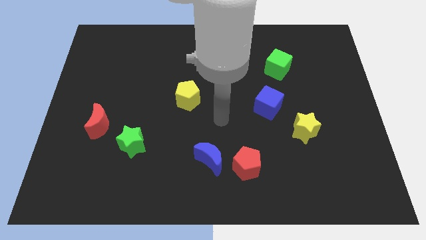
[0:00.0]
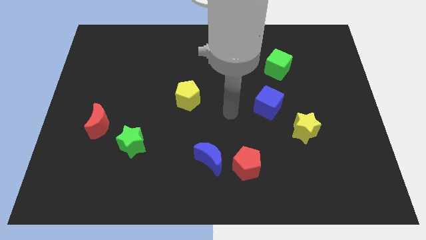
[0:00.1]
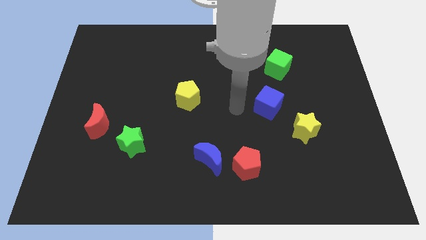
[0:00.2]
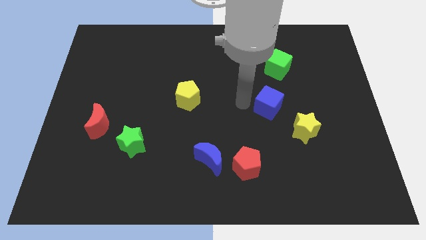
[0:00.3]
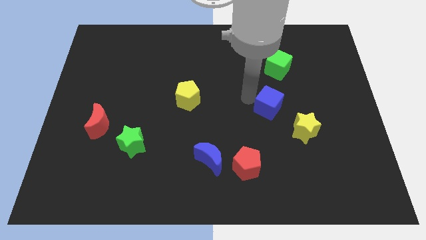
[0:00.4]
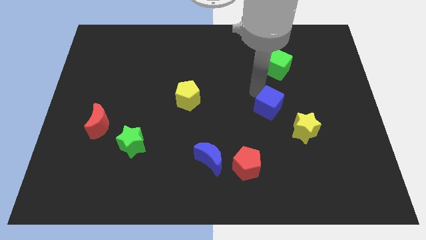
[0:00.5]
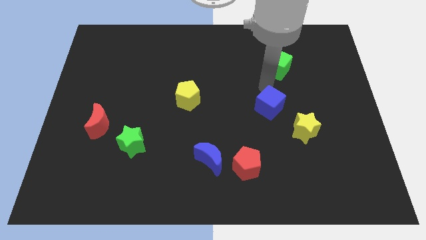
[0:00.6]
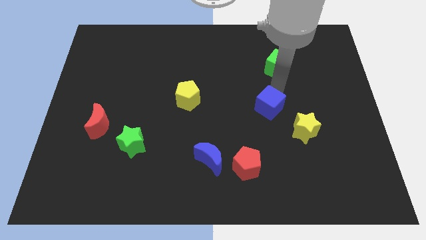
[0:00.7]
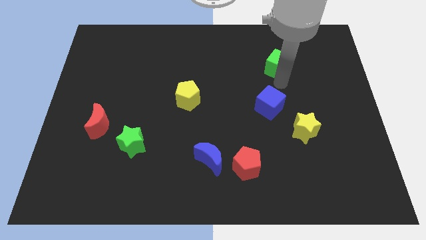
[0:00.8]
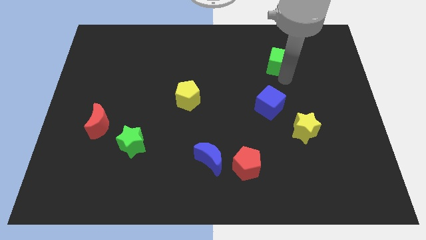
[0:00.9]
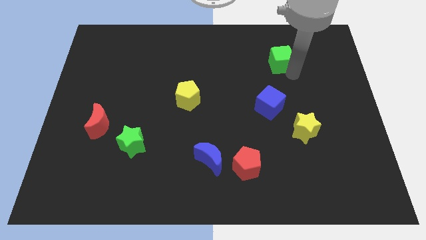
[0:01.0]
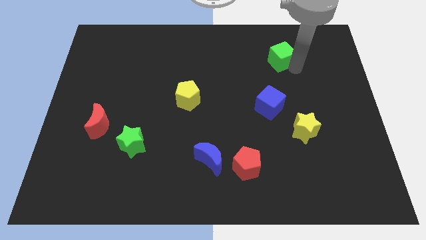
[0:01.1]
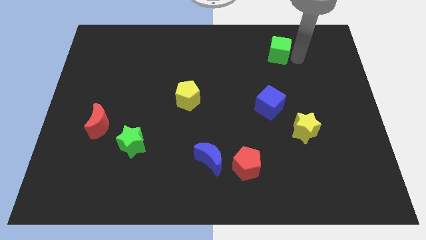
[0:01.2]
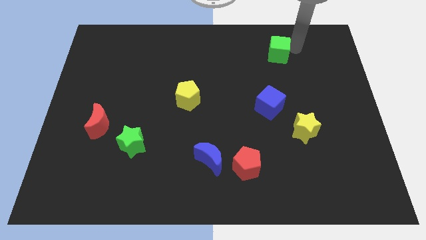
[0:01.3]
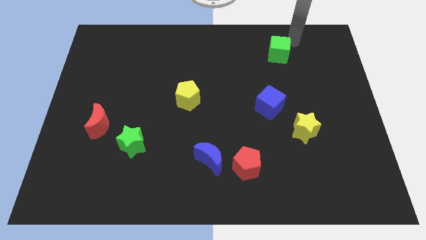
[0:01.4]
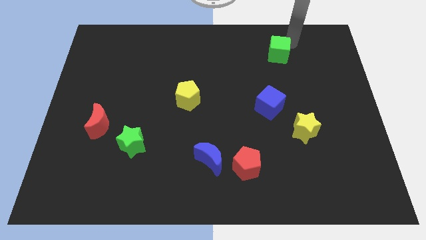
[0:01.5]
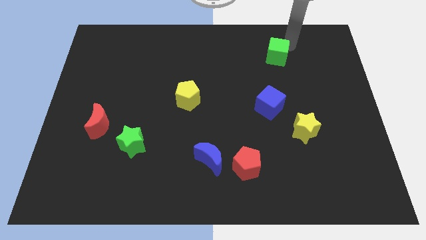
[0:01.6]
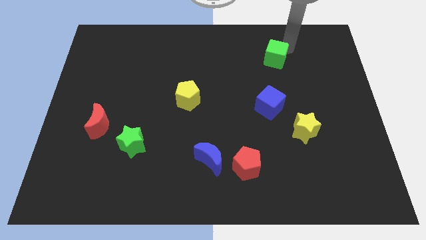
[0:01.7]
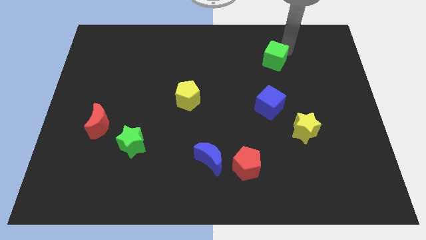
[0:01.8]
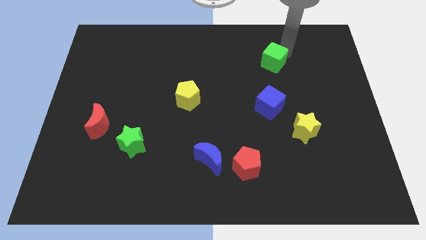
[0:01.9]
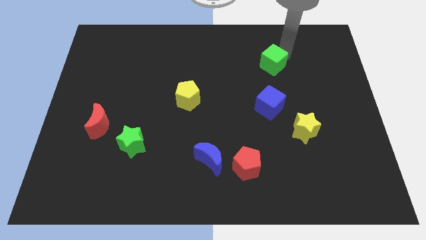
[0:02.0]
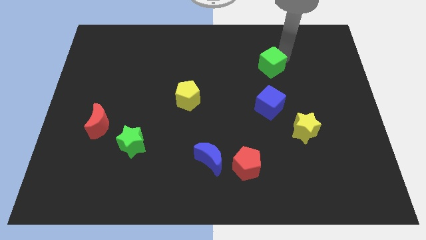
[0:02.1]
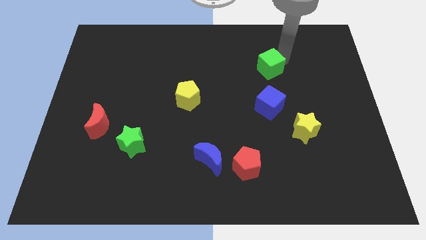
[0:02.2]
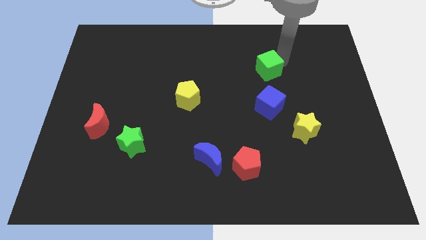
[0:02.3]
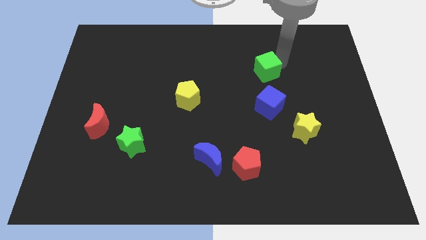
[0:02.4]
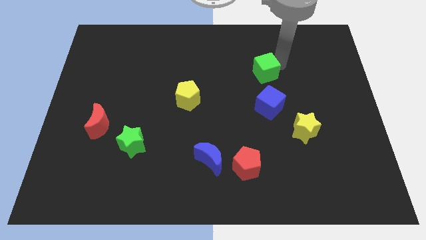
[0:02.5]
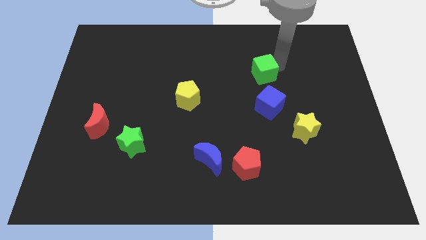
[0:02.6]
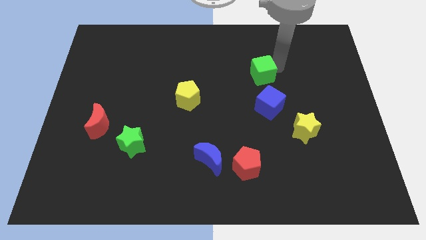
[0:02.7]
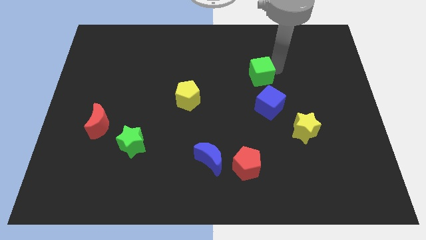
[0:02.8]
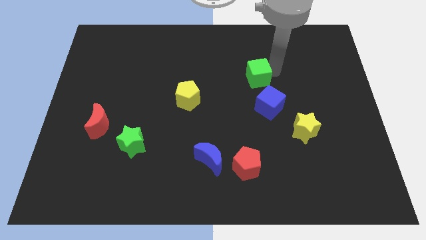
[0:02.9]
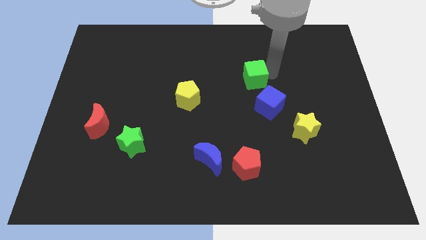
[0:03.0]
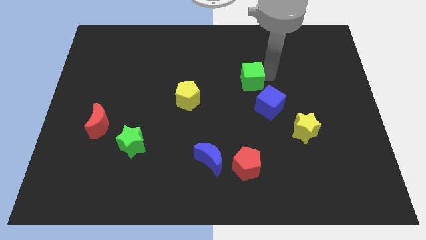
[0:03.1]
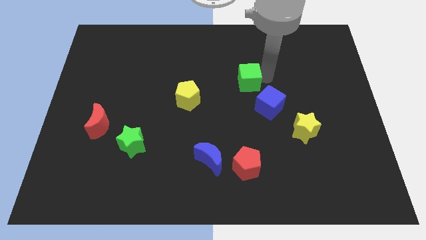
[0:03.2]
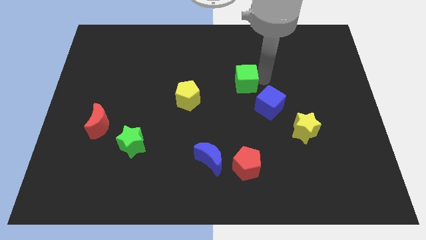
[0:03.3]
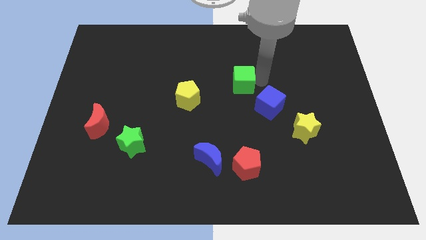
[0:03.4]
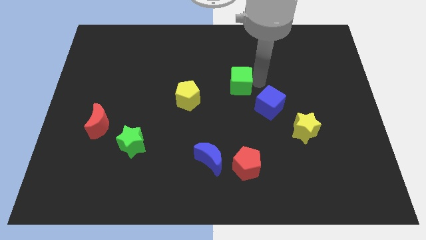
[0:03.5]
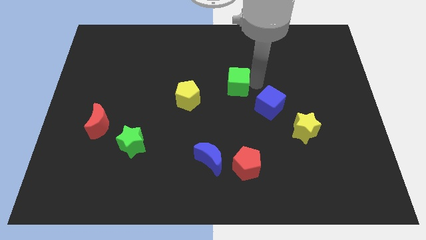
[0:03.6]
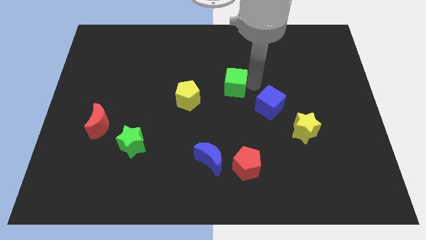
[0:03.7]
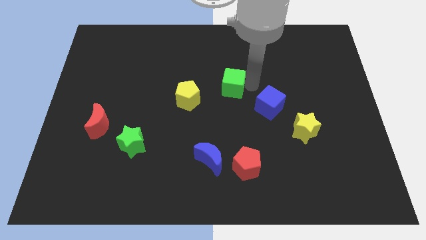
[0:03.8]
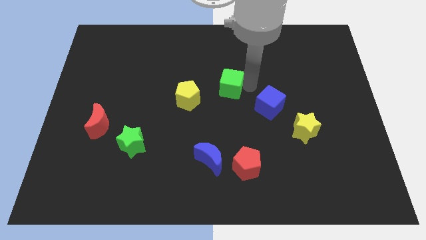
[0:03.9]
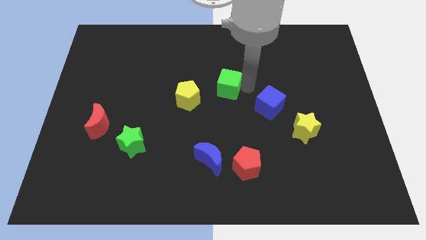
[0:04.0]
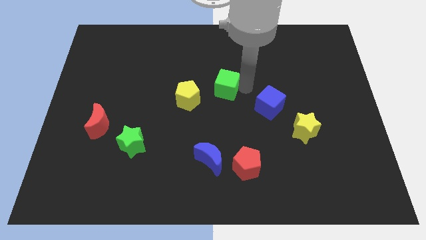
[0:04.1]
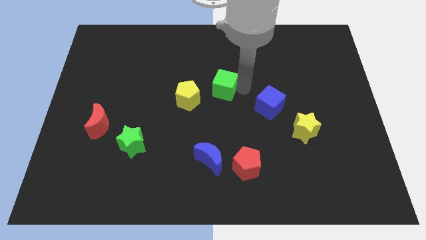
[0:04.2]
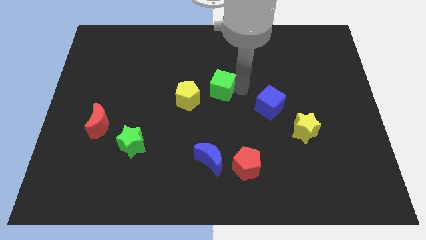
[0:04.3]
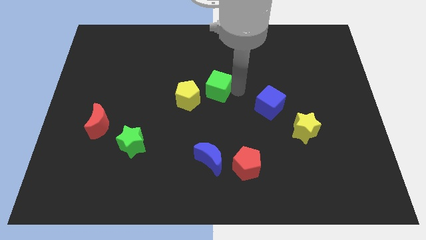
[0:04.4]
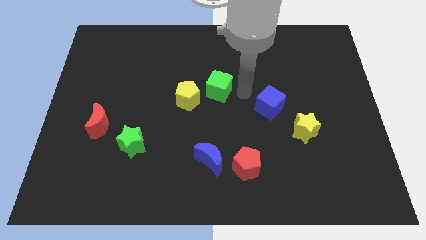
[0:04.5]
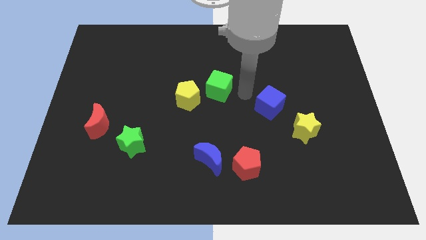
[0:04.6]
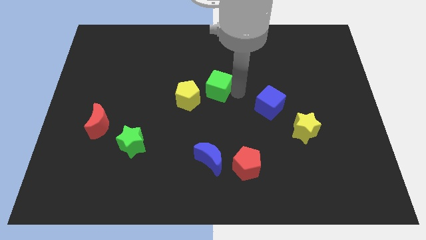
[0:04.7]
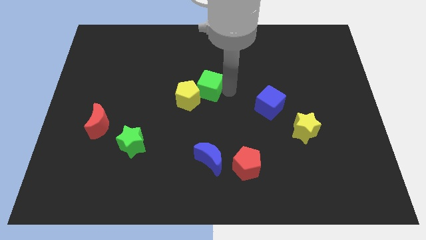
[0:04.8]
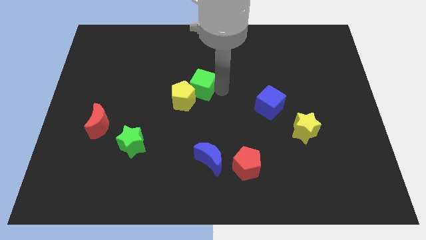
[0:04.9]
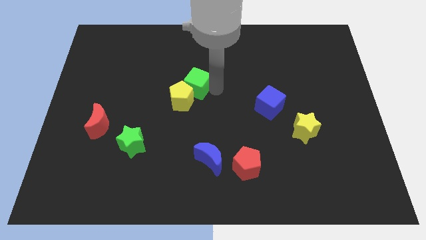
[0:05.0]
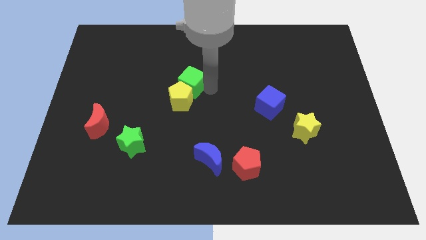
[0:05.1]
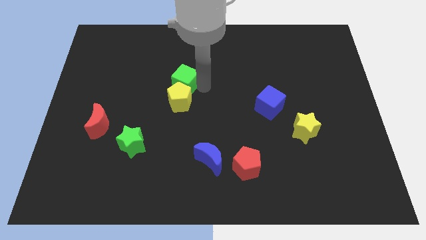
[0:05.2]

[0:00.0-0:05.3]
push the green cube to the top left side of the yellow pentagon

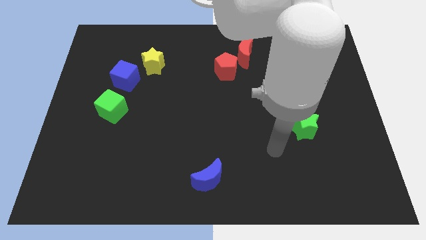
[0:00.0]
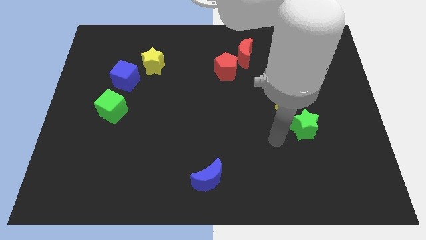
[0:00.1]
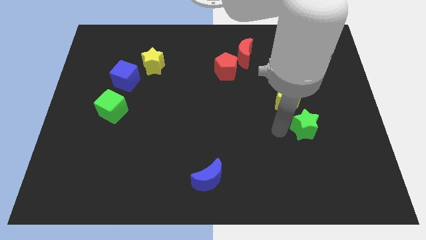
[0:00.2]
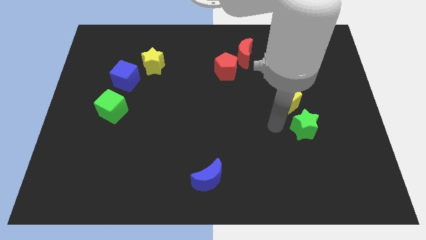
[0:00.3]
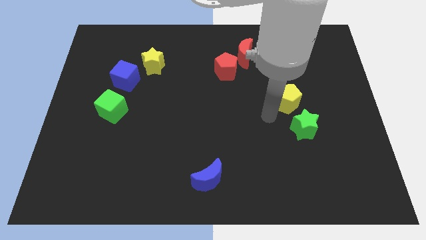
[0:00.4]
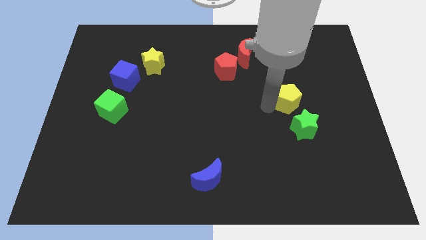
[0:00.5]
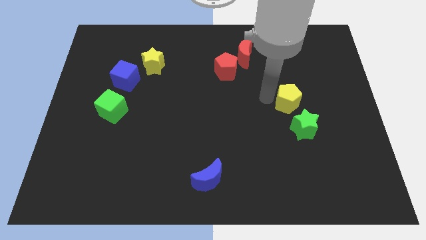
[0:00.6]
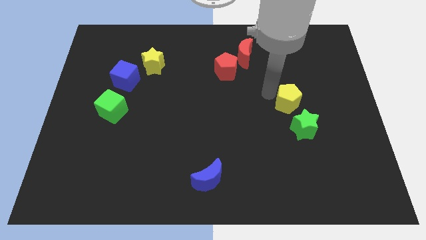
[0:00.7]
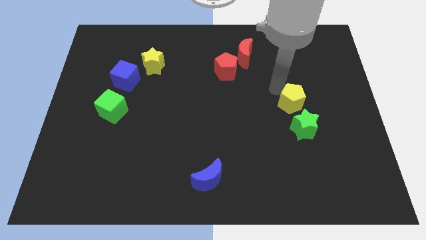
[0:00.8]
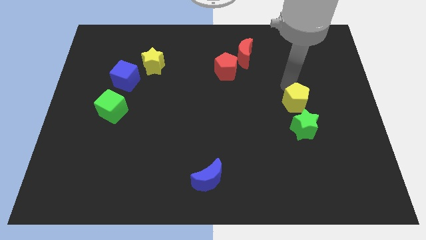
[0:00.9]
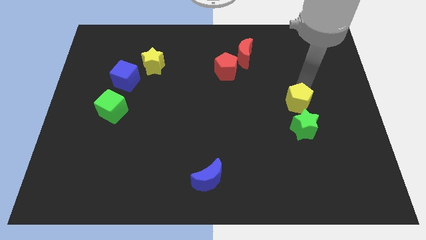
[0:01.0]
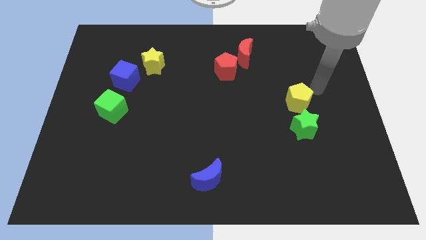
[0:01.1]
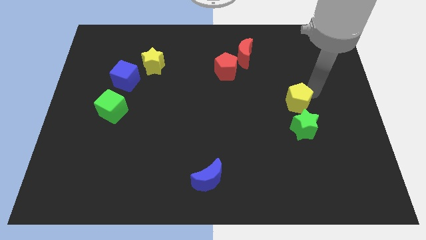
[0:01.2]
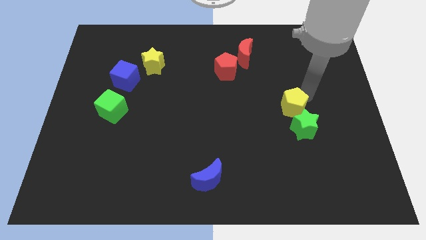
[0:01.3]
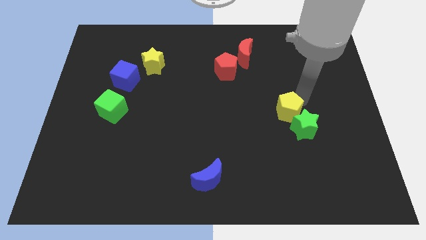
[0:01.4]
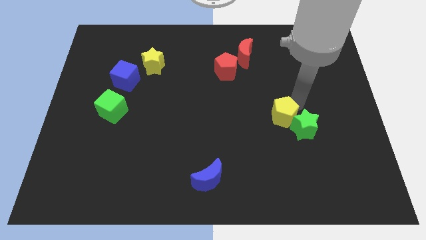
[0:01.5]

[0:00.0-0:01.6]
slide the yellow pentagon to the left of the green star

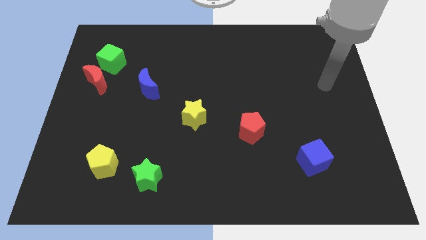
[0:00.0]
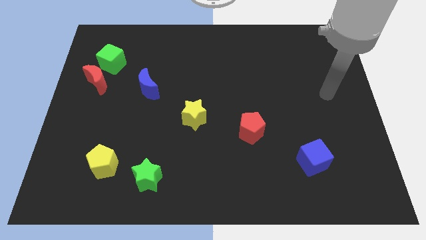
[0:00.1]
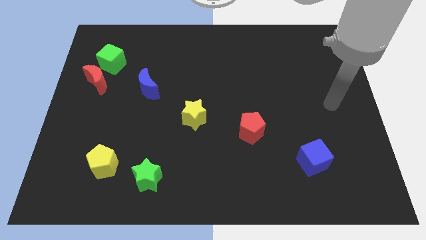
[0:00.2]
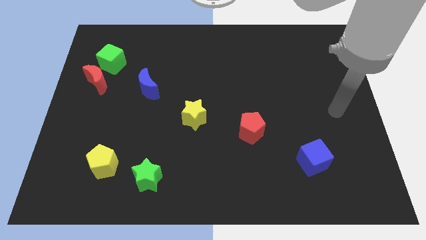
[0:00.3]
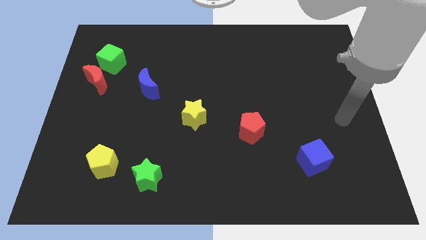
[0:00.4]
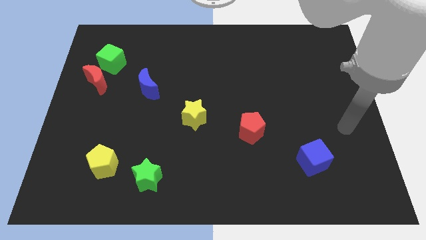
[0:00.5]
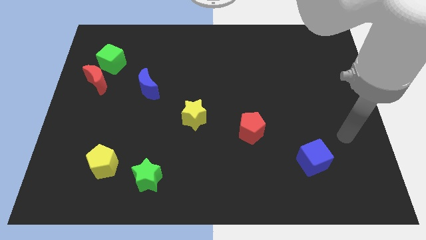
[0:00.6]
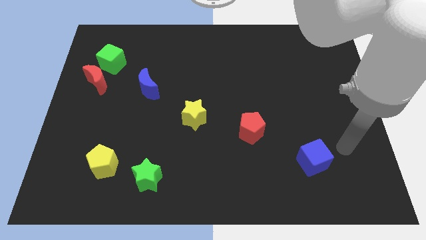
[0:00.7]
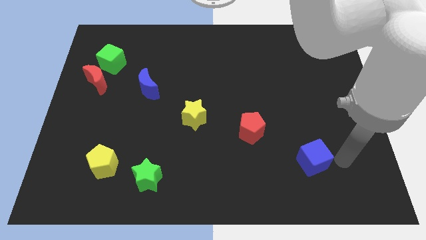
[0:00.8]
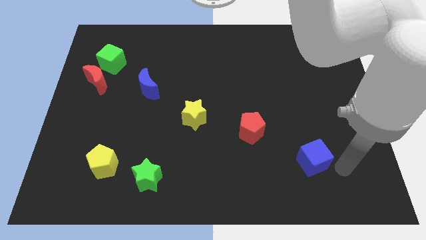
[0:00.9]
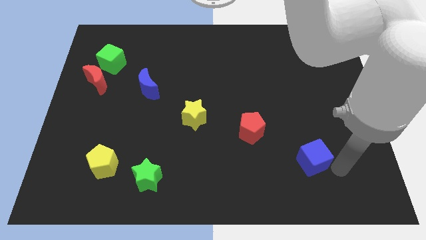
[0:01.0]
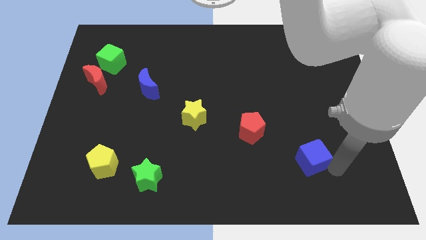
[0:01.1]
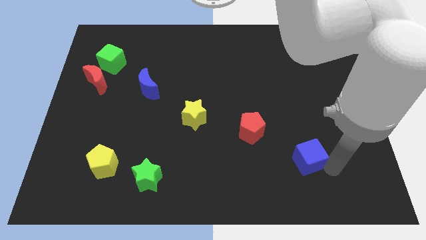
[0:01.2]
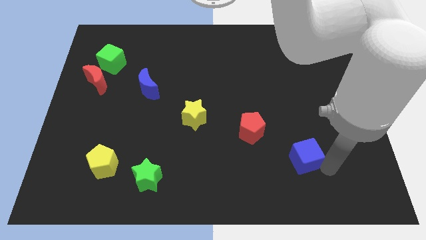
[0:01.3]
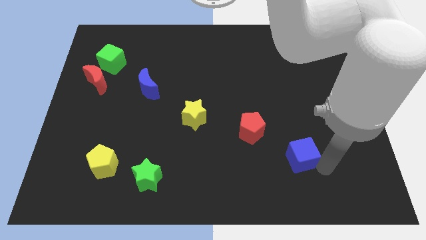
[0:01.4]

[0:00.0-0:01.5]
push the blue cube to the bottom right side of the red pentagon
